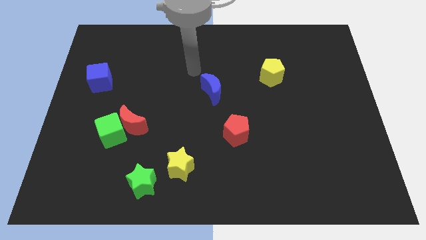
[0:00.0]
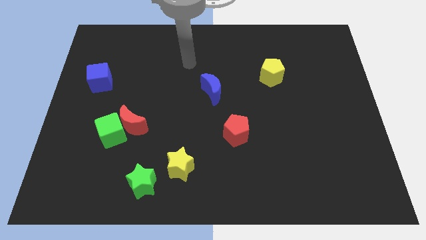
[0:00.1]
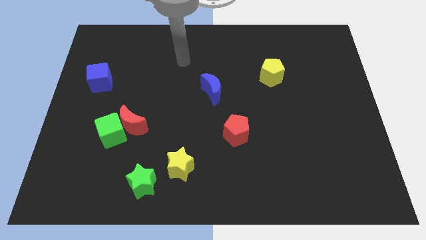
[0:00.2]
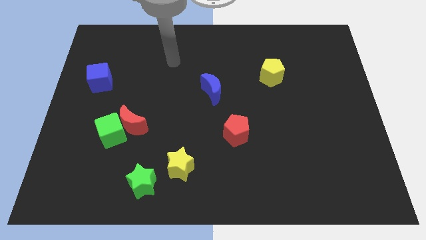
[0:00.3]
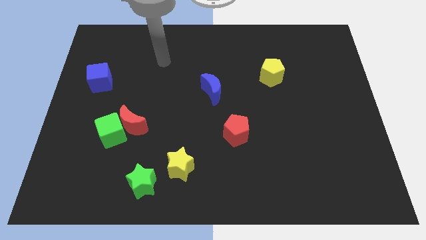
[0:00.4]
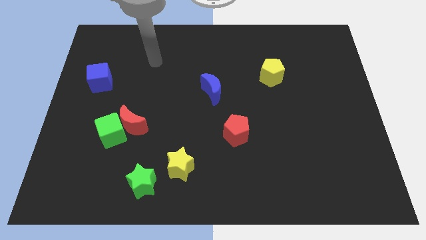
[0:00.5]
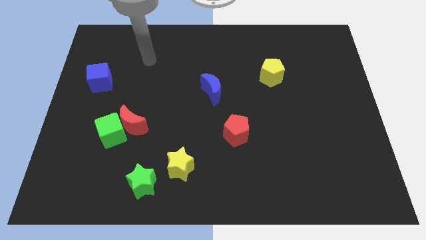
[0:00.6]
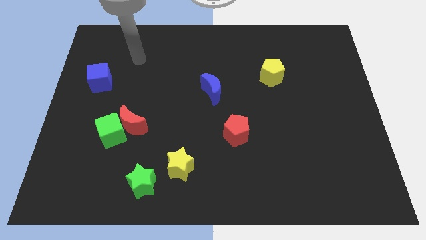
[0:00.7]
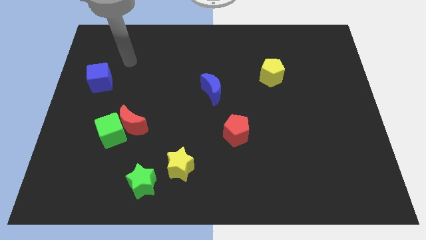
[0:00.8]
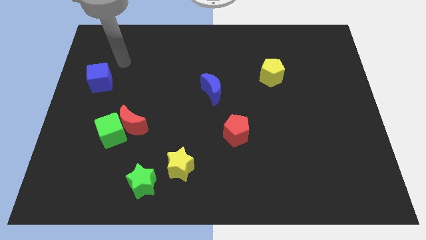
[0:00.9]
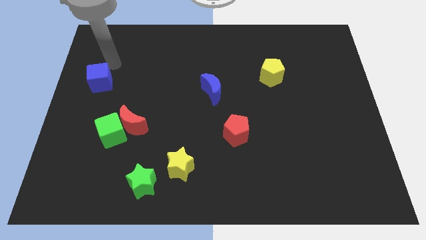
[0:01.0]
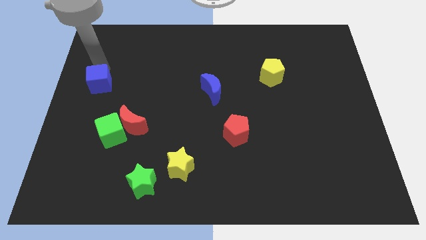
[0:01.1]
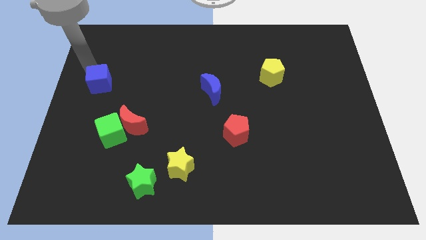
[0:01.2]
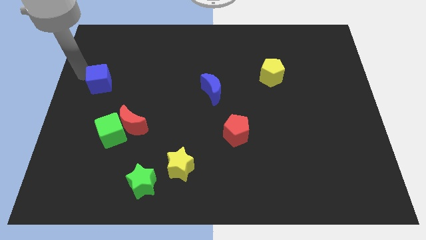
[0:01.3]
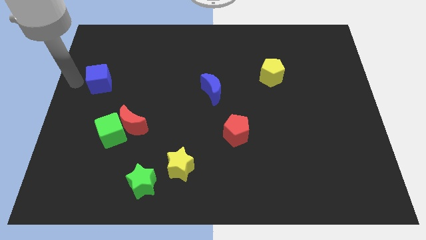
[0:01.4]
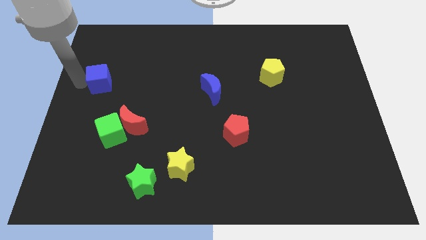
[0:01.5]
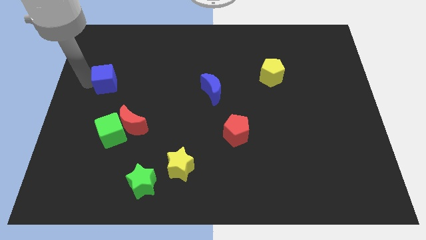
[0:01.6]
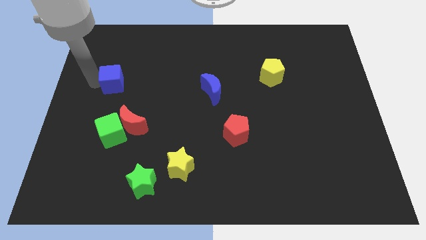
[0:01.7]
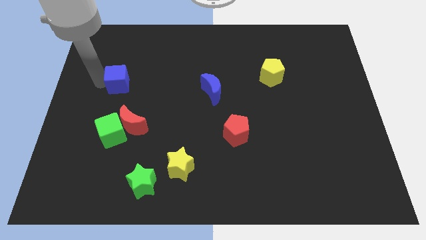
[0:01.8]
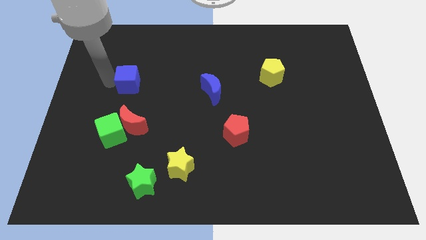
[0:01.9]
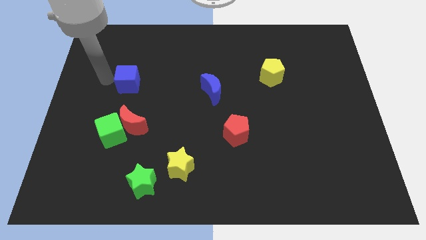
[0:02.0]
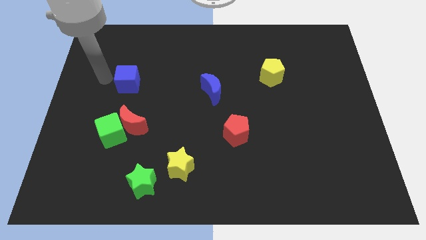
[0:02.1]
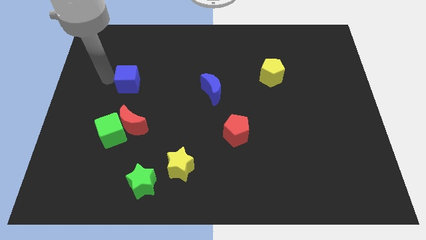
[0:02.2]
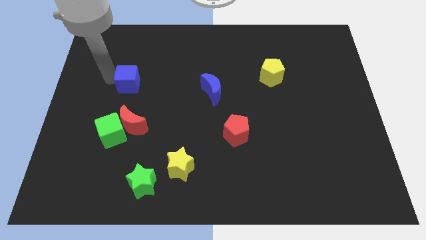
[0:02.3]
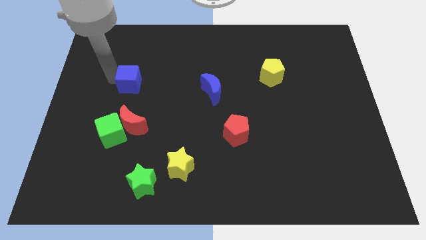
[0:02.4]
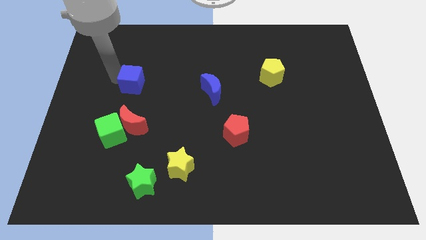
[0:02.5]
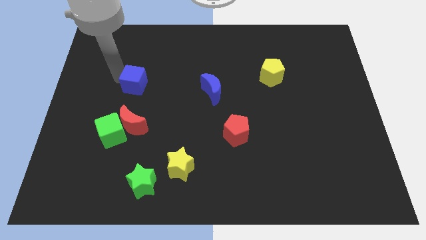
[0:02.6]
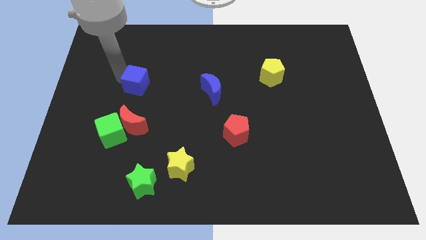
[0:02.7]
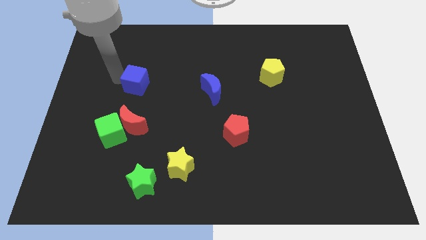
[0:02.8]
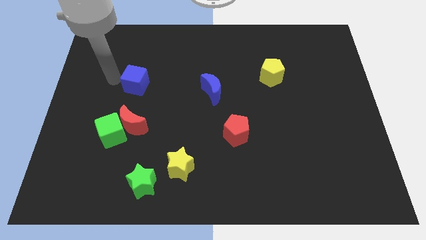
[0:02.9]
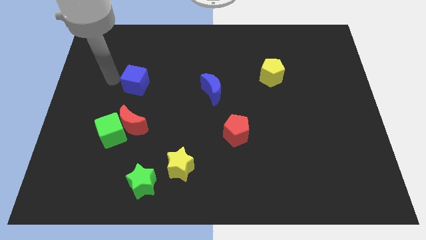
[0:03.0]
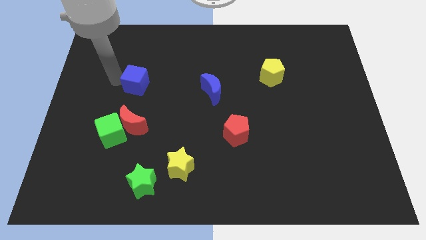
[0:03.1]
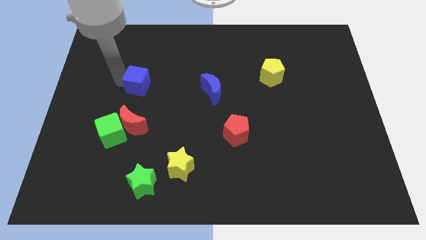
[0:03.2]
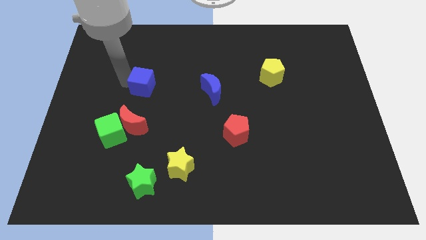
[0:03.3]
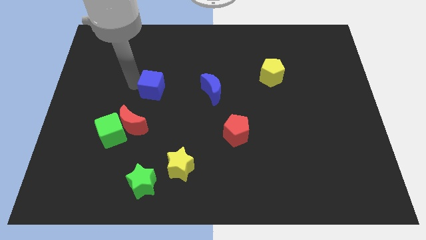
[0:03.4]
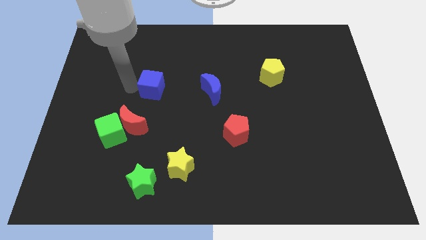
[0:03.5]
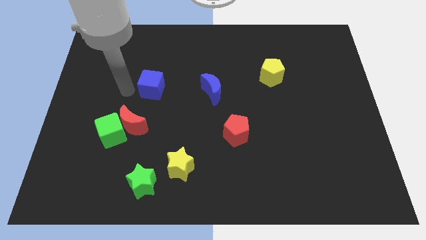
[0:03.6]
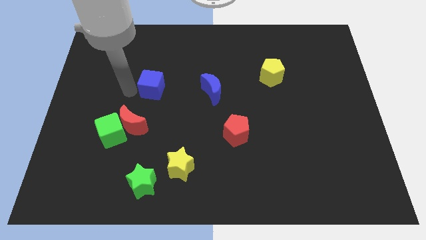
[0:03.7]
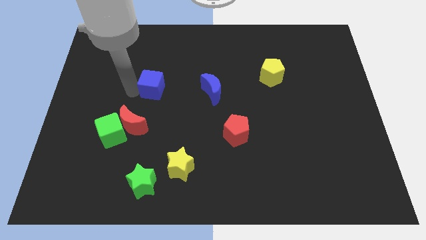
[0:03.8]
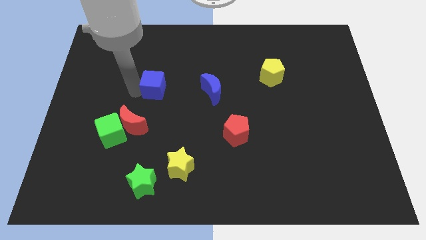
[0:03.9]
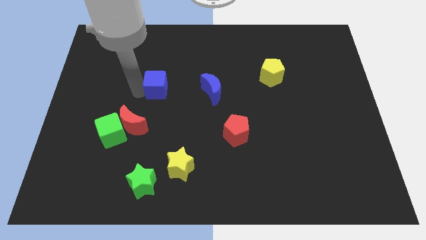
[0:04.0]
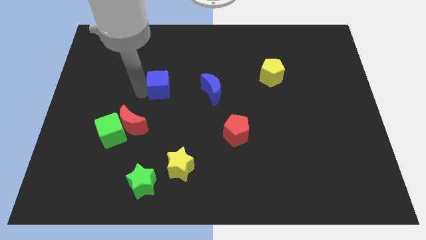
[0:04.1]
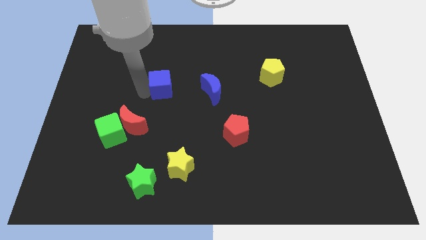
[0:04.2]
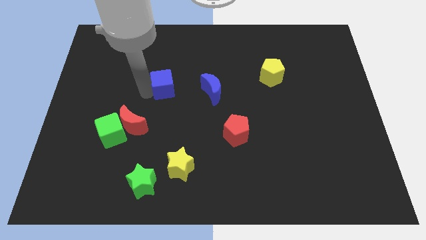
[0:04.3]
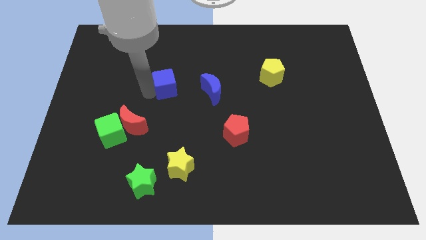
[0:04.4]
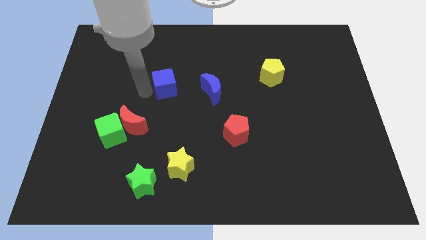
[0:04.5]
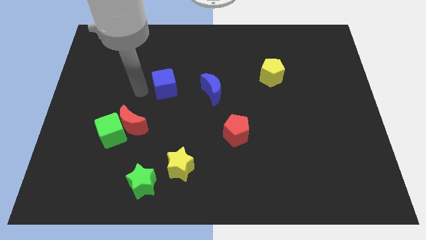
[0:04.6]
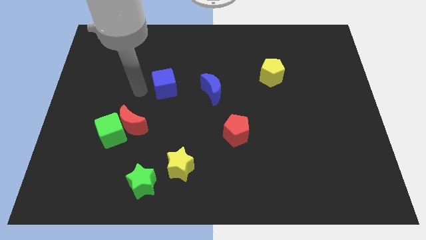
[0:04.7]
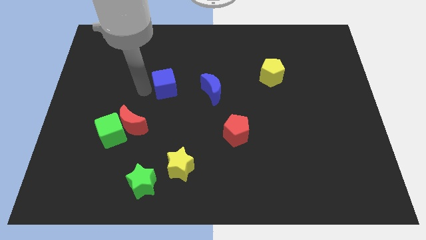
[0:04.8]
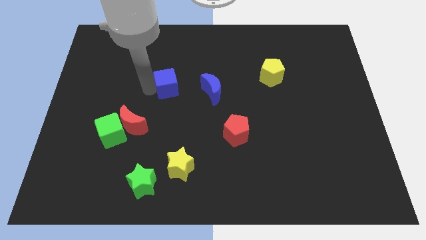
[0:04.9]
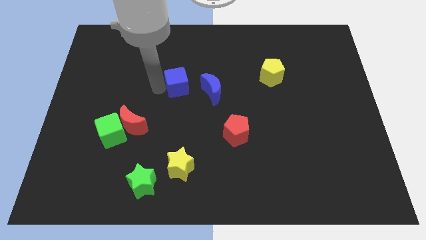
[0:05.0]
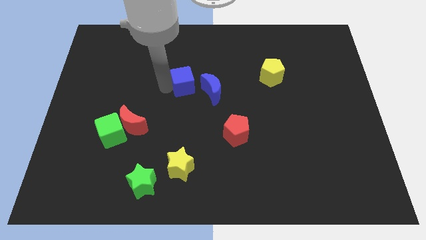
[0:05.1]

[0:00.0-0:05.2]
move the blue cube to the right

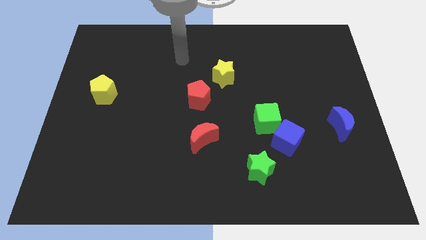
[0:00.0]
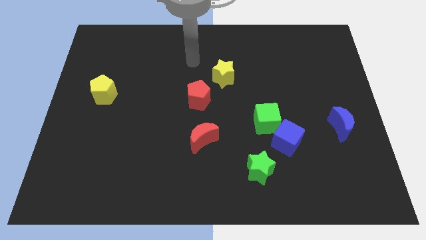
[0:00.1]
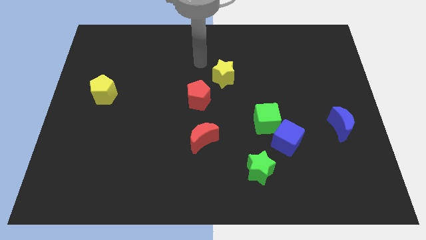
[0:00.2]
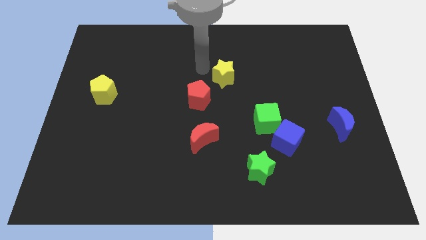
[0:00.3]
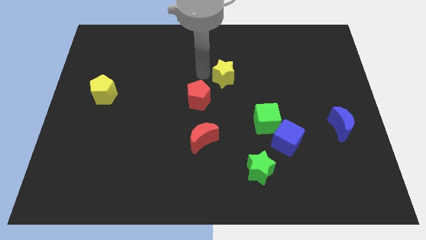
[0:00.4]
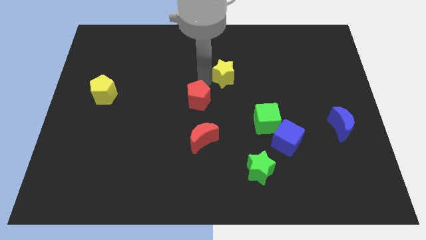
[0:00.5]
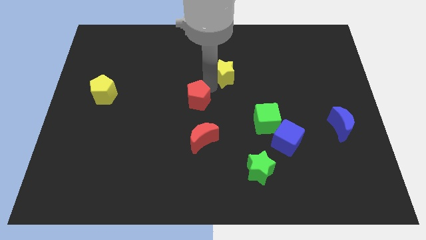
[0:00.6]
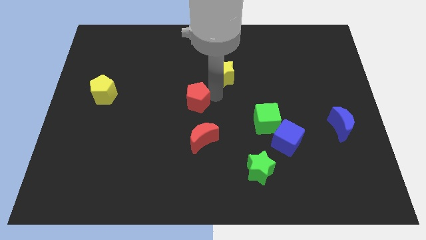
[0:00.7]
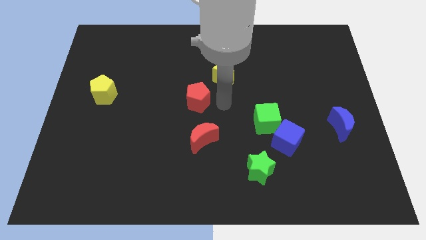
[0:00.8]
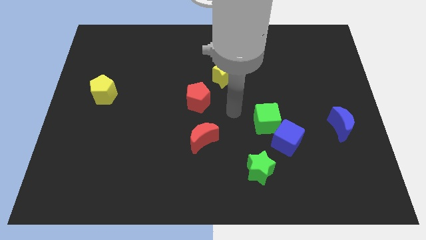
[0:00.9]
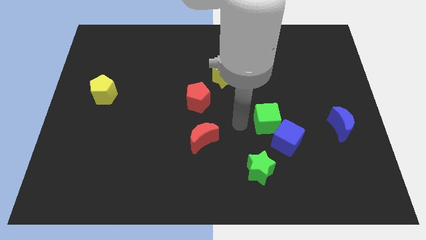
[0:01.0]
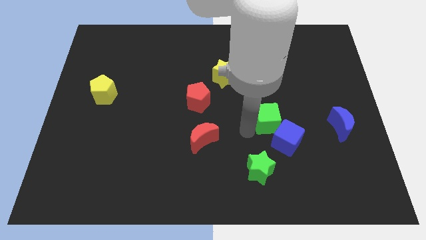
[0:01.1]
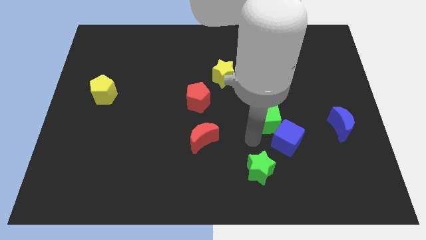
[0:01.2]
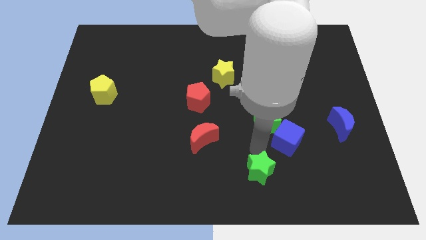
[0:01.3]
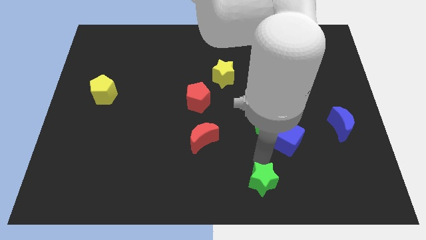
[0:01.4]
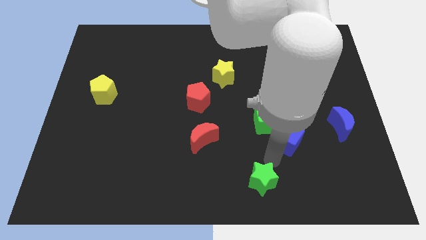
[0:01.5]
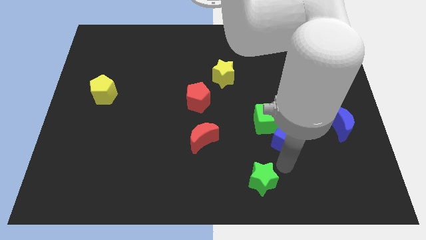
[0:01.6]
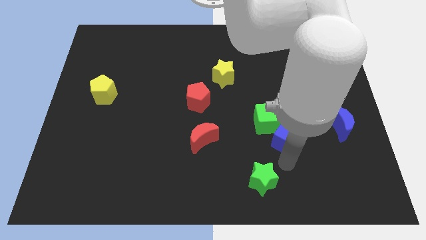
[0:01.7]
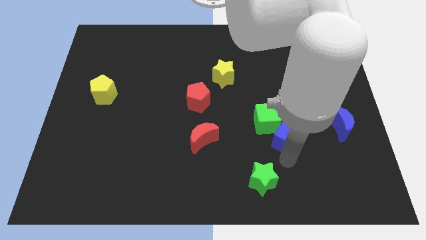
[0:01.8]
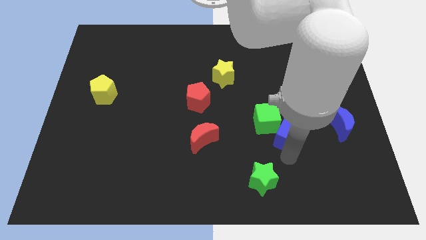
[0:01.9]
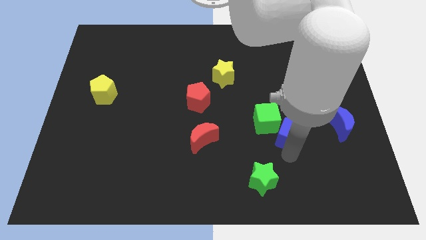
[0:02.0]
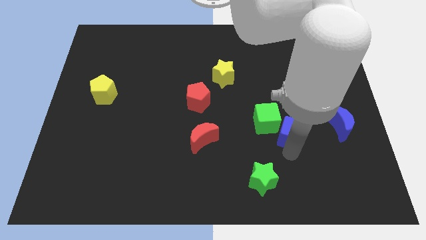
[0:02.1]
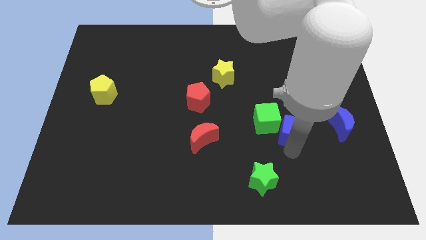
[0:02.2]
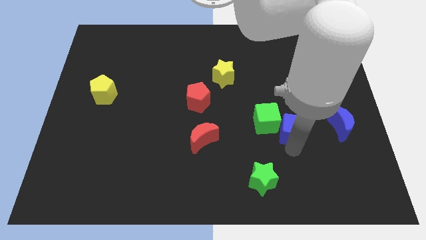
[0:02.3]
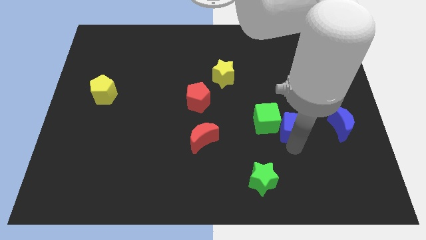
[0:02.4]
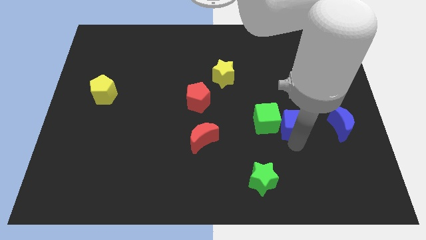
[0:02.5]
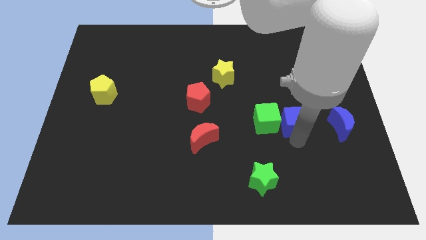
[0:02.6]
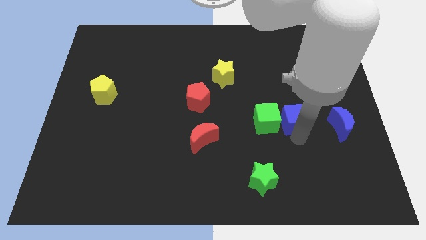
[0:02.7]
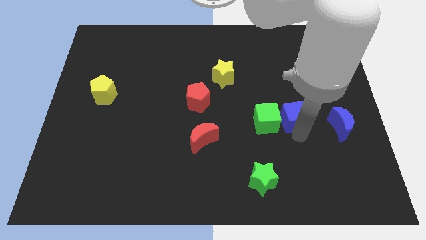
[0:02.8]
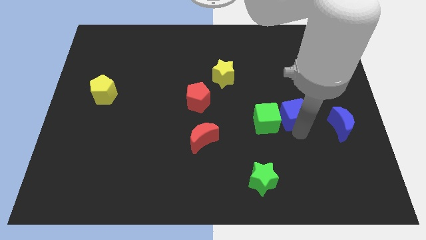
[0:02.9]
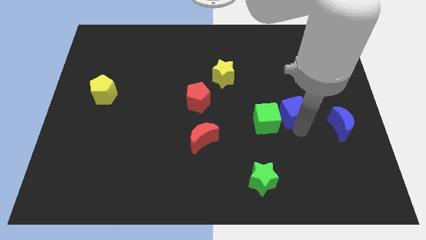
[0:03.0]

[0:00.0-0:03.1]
slide the blue cube upwards a little

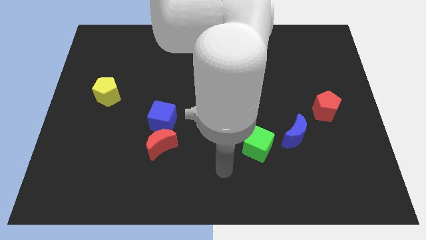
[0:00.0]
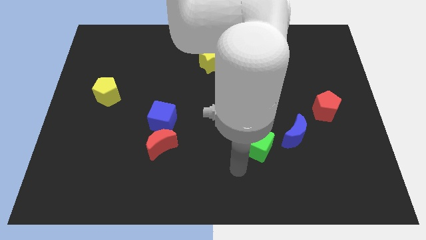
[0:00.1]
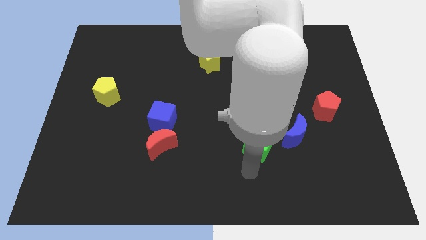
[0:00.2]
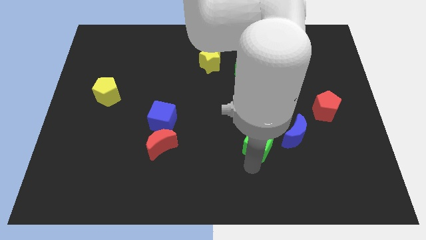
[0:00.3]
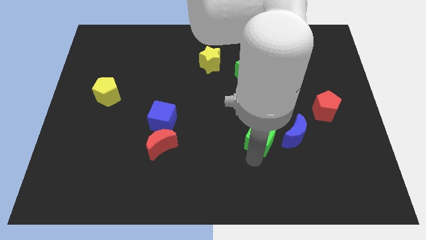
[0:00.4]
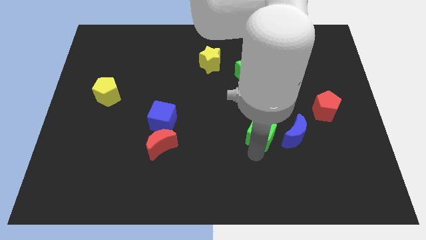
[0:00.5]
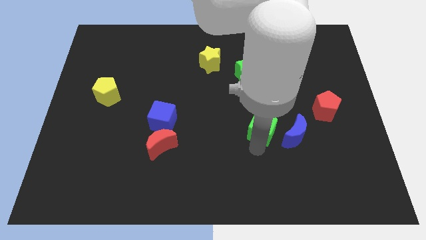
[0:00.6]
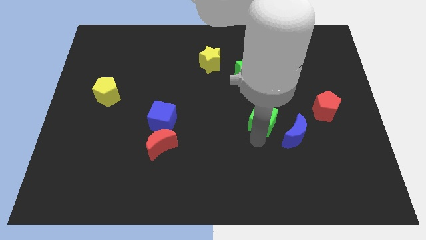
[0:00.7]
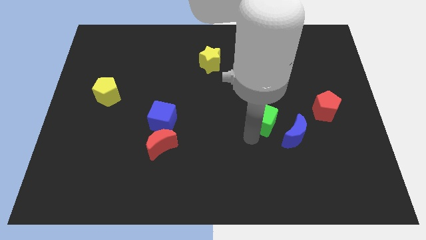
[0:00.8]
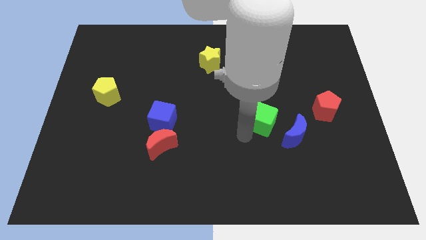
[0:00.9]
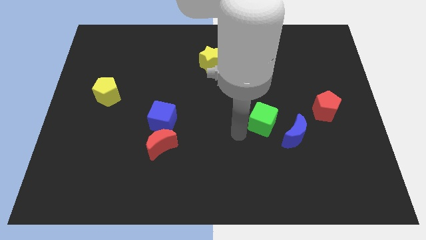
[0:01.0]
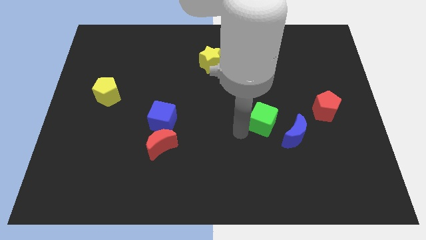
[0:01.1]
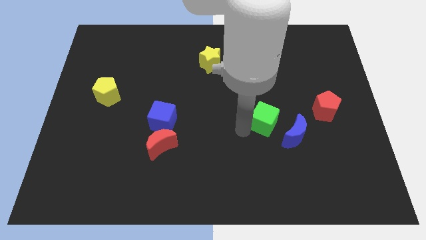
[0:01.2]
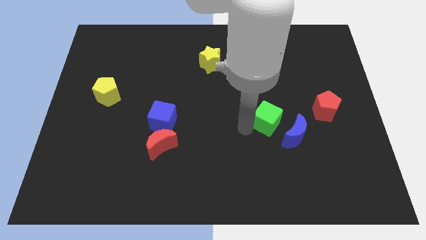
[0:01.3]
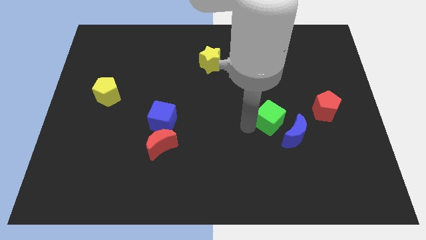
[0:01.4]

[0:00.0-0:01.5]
slightly slide the green cube diagonally up and right
